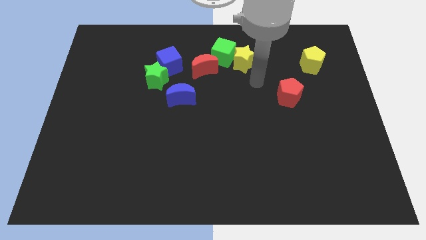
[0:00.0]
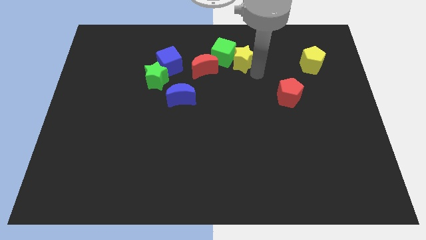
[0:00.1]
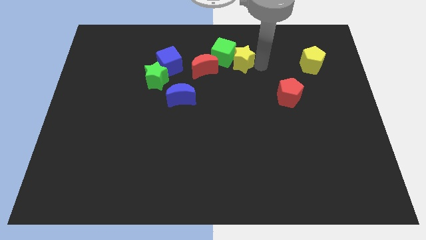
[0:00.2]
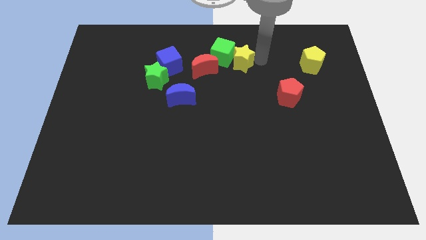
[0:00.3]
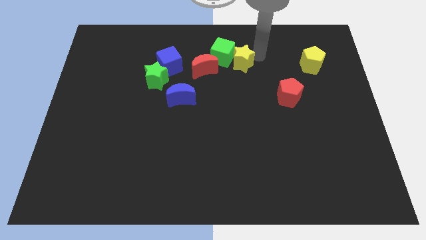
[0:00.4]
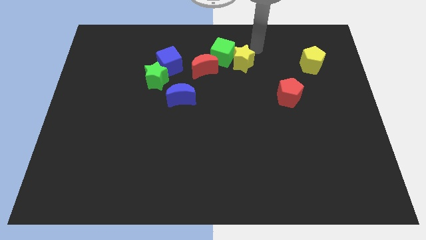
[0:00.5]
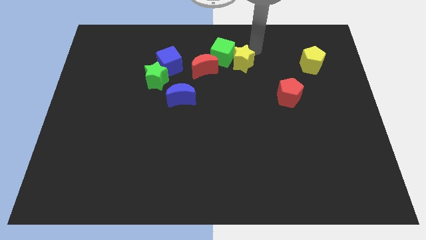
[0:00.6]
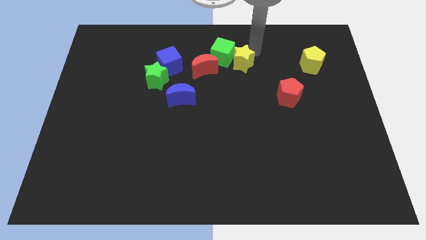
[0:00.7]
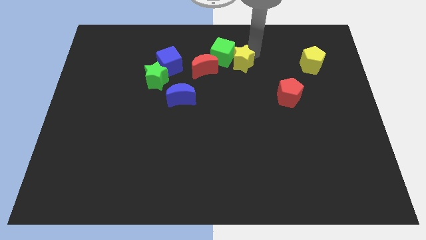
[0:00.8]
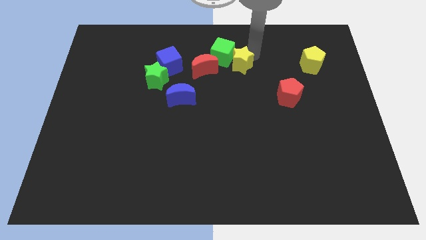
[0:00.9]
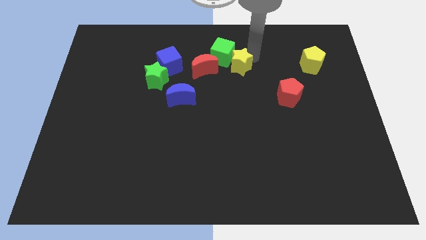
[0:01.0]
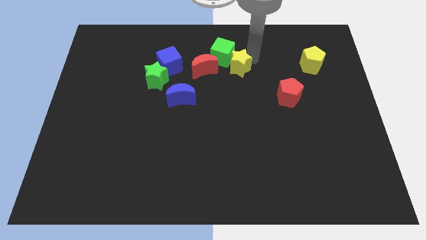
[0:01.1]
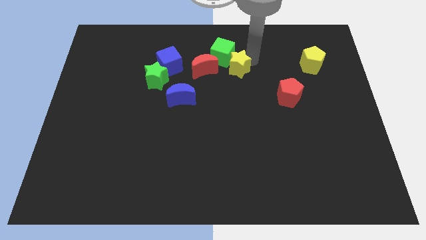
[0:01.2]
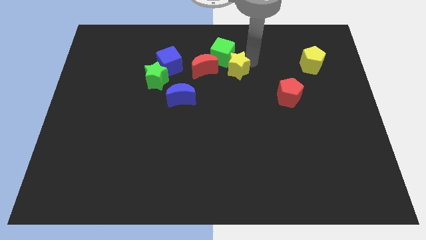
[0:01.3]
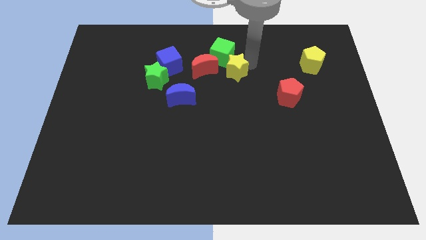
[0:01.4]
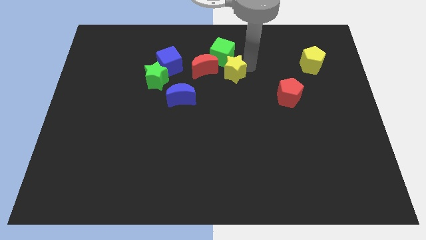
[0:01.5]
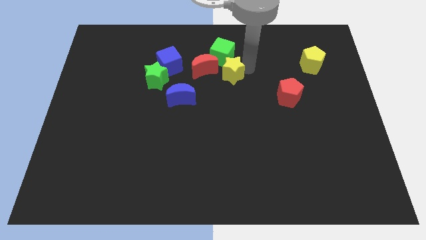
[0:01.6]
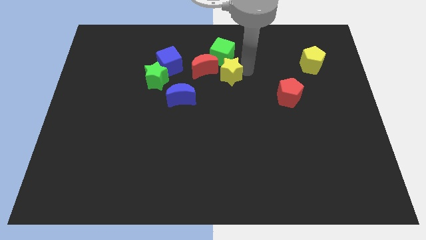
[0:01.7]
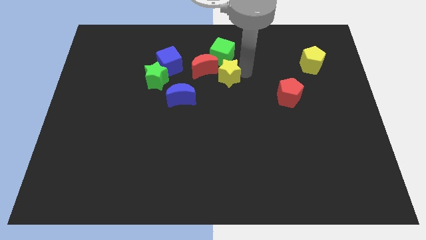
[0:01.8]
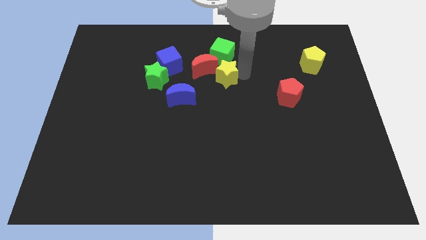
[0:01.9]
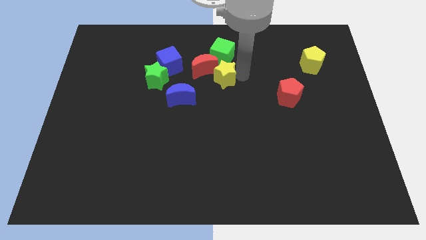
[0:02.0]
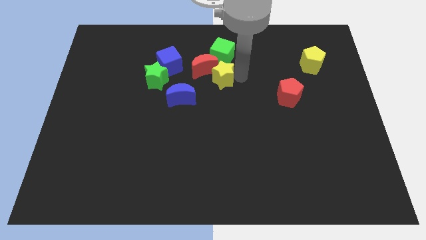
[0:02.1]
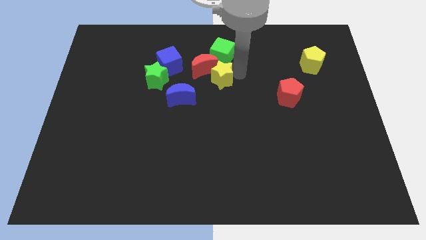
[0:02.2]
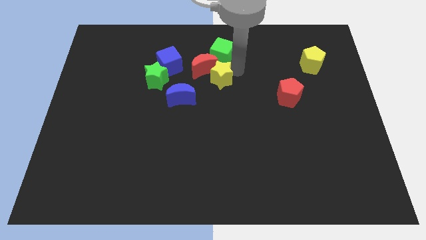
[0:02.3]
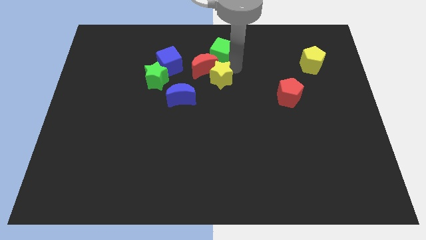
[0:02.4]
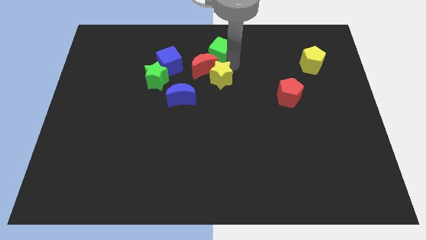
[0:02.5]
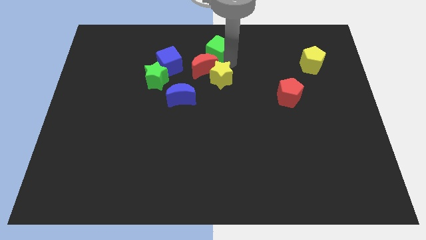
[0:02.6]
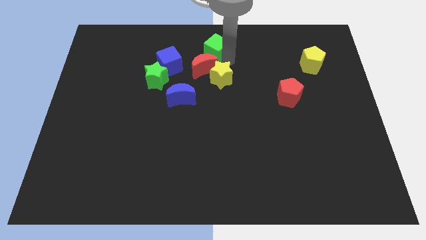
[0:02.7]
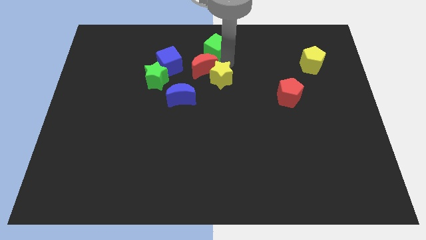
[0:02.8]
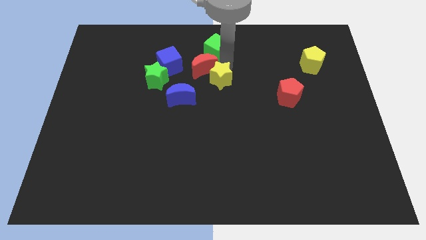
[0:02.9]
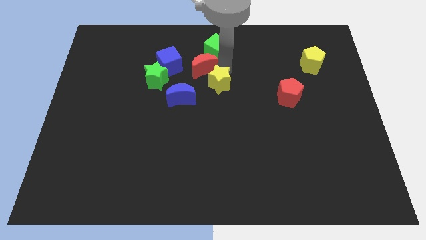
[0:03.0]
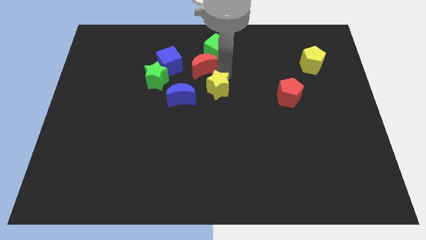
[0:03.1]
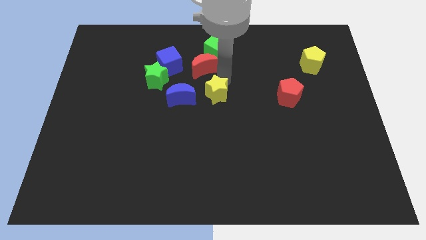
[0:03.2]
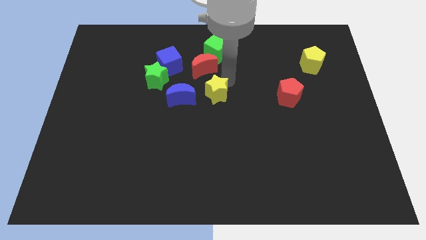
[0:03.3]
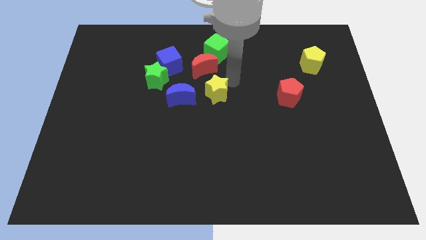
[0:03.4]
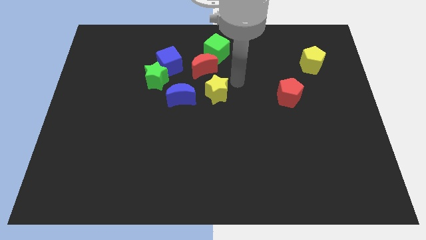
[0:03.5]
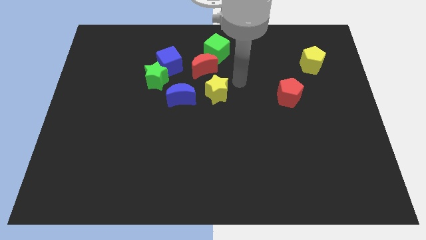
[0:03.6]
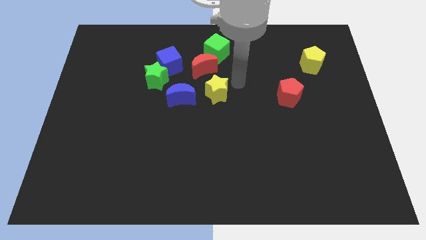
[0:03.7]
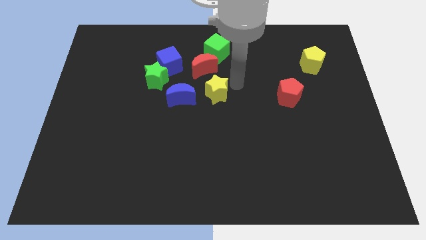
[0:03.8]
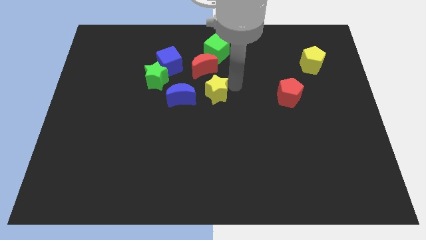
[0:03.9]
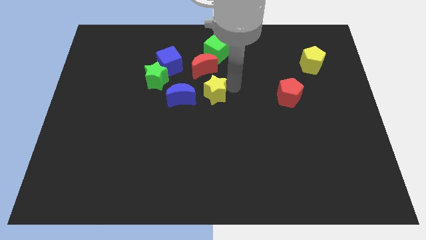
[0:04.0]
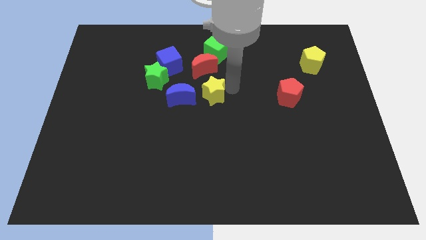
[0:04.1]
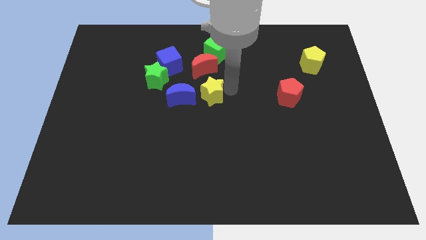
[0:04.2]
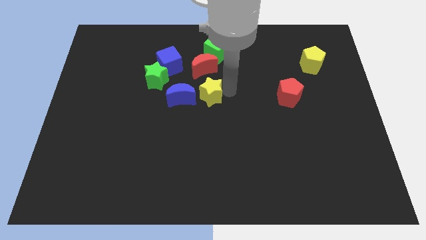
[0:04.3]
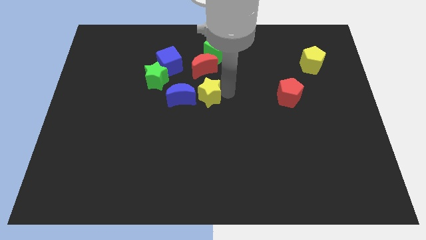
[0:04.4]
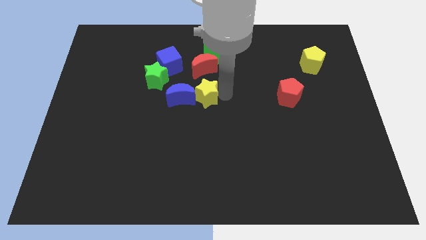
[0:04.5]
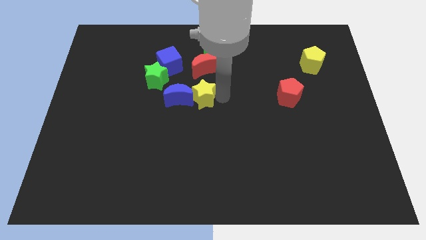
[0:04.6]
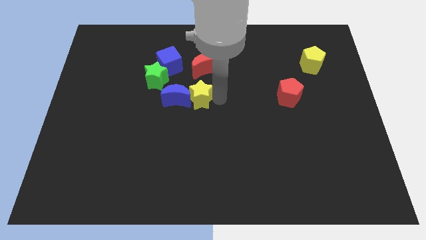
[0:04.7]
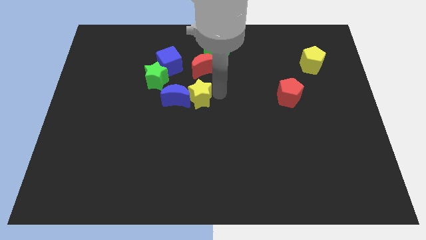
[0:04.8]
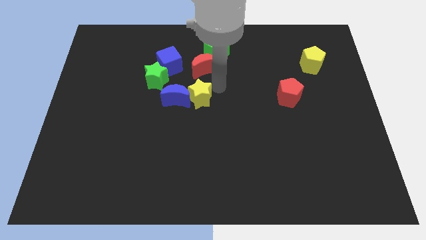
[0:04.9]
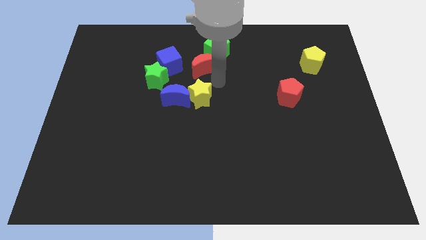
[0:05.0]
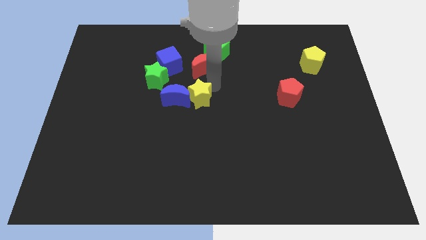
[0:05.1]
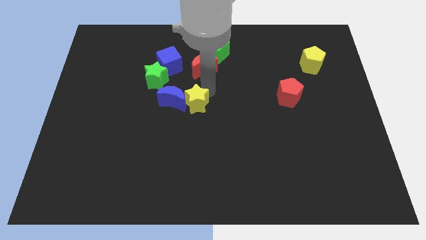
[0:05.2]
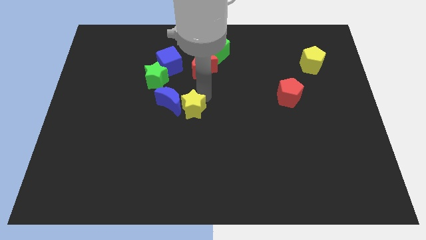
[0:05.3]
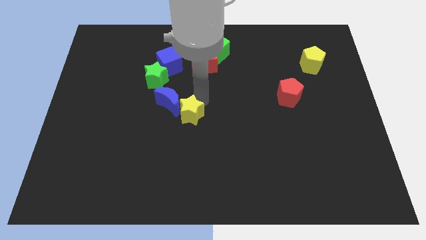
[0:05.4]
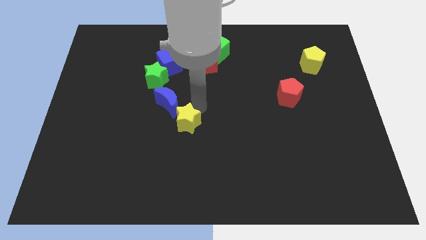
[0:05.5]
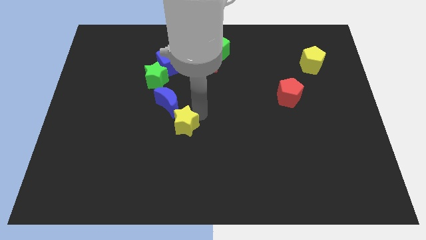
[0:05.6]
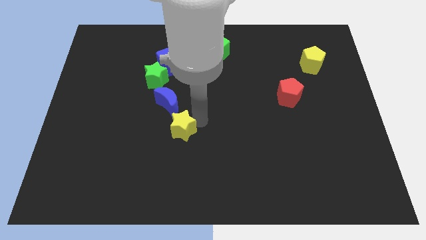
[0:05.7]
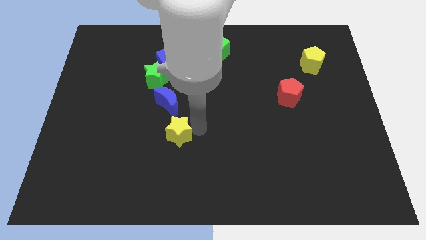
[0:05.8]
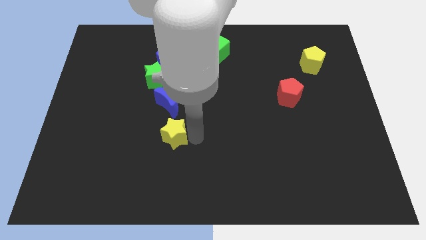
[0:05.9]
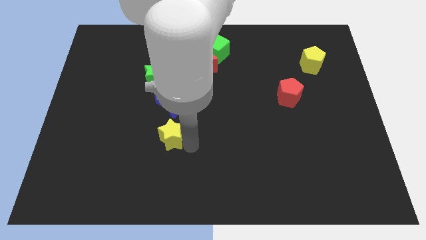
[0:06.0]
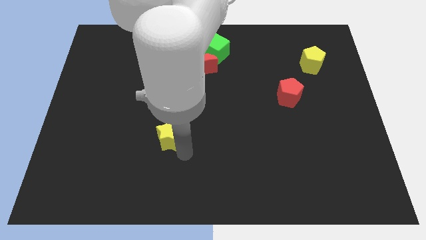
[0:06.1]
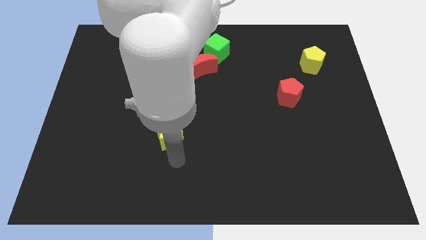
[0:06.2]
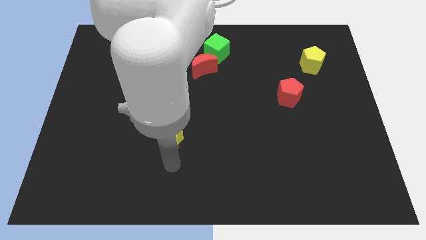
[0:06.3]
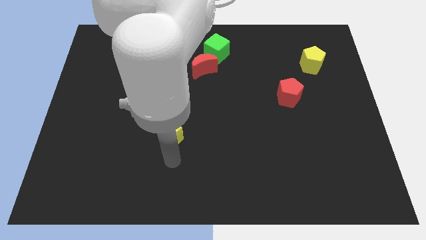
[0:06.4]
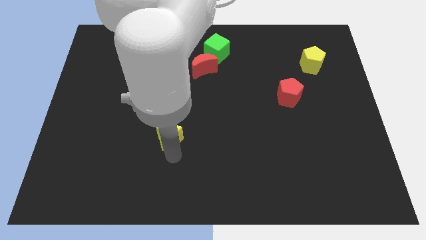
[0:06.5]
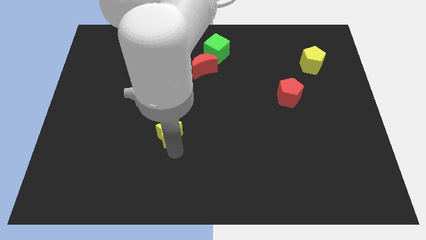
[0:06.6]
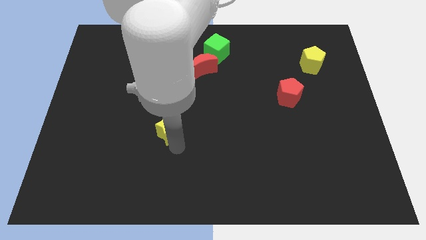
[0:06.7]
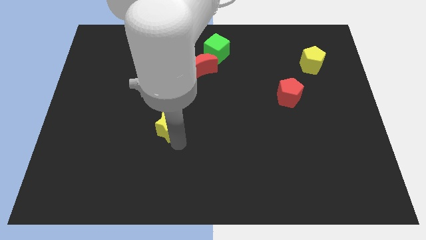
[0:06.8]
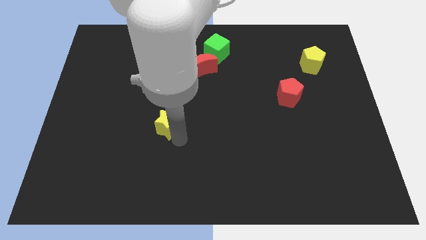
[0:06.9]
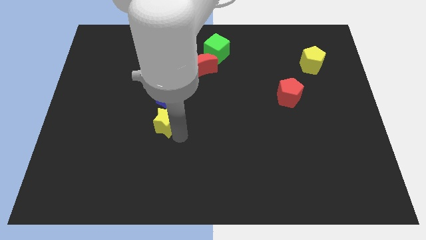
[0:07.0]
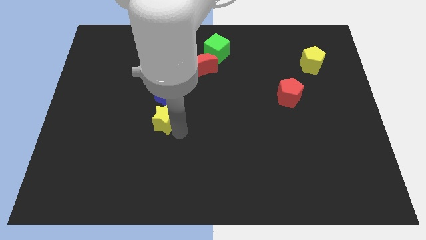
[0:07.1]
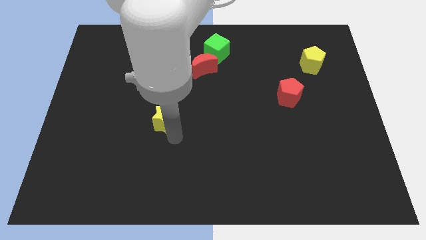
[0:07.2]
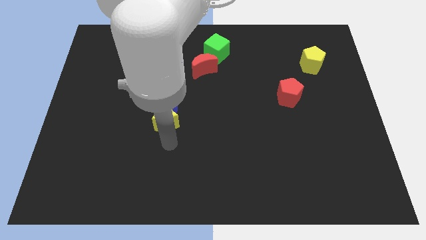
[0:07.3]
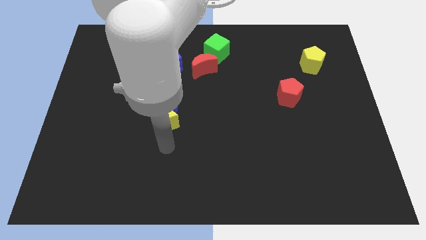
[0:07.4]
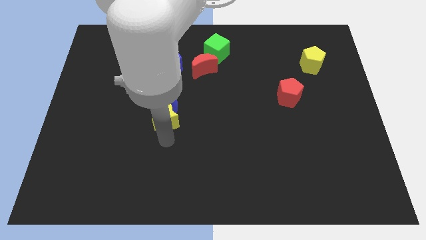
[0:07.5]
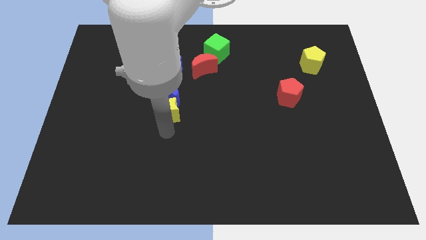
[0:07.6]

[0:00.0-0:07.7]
put the yellow star to the bottom side of the blue cube
